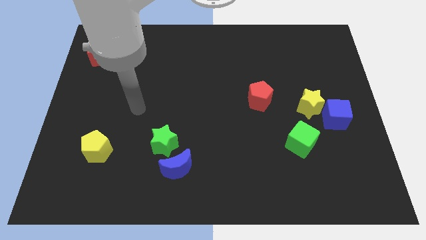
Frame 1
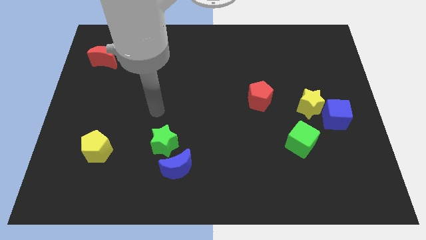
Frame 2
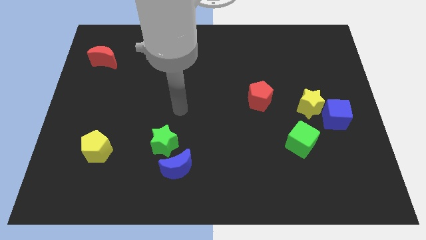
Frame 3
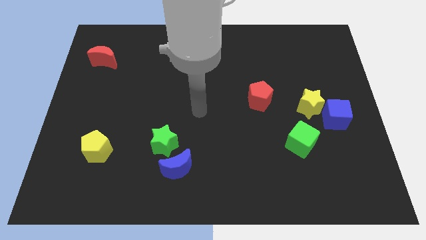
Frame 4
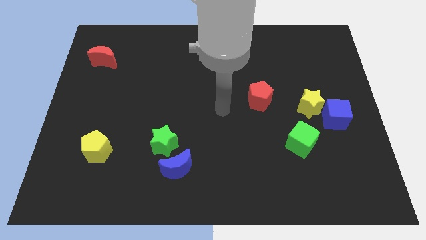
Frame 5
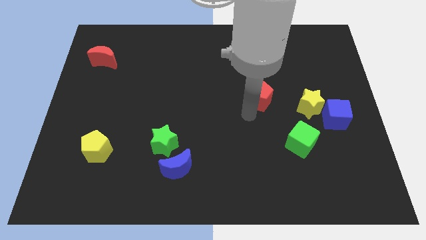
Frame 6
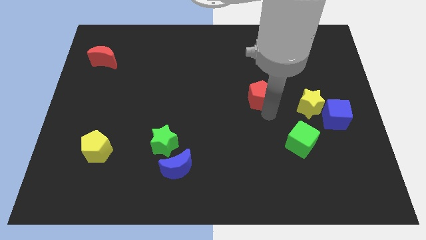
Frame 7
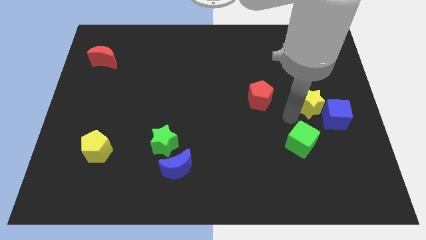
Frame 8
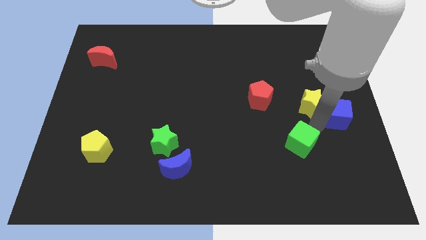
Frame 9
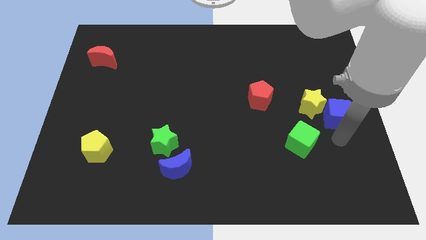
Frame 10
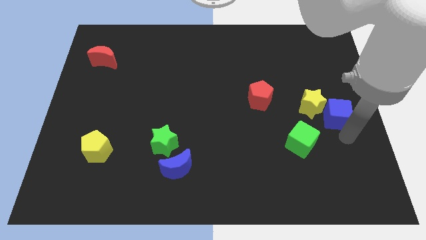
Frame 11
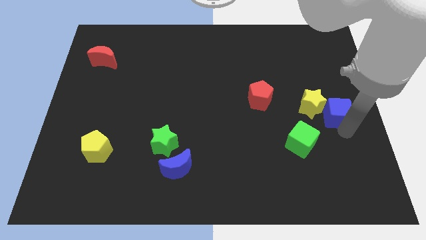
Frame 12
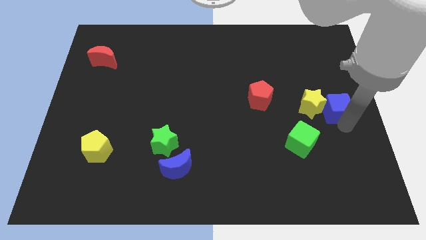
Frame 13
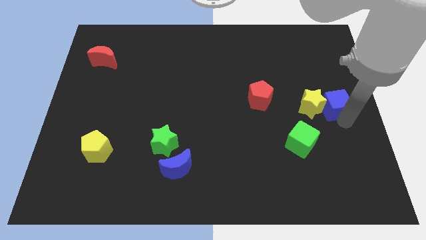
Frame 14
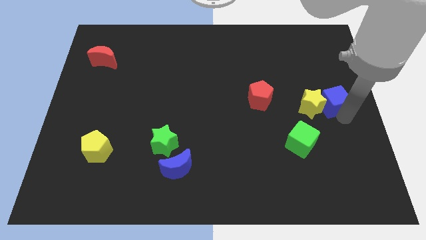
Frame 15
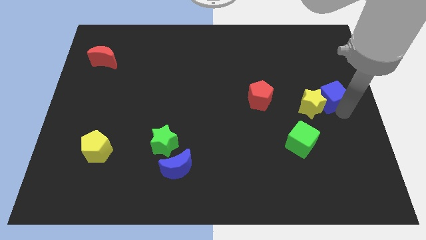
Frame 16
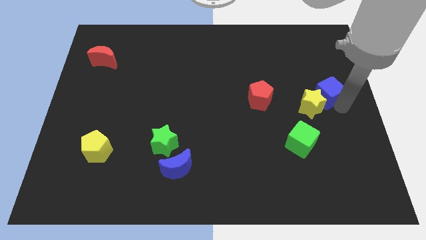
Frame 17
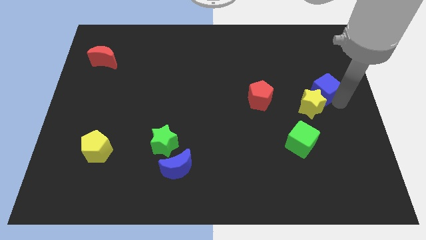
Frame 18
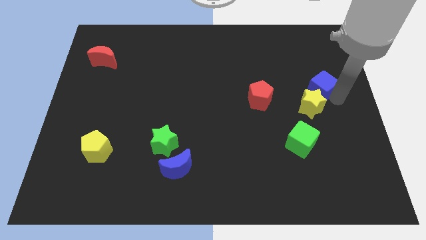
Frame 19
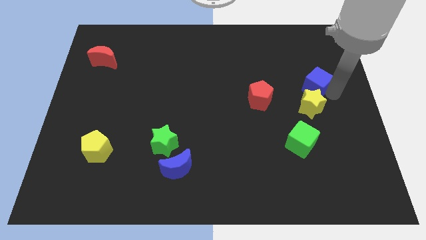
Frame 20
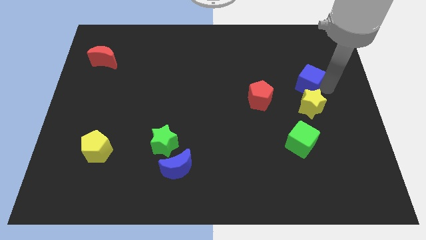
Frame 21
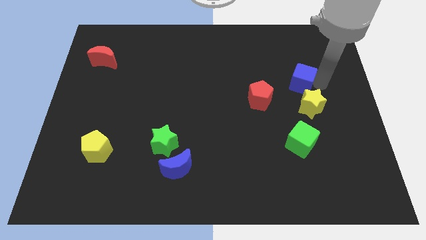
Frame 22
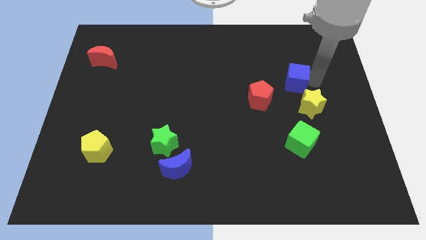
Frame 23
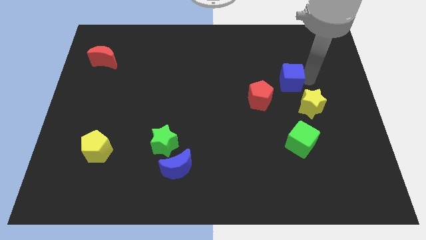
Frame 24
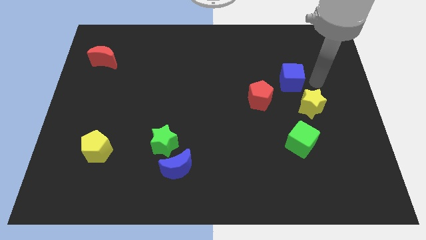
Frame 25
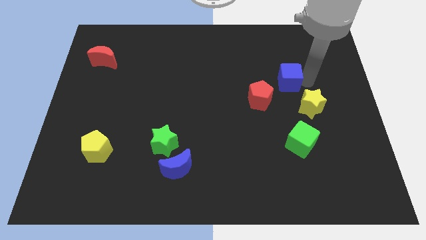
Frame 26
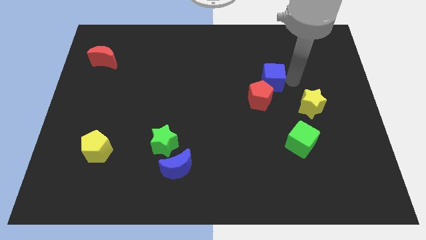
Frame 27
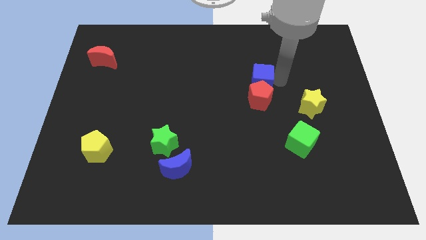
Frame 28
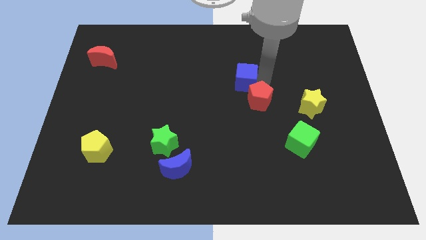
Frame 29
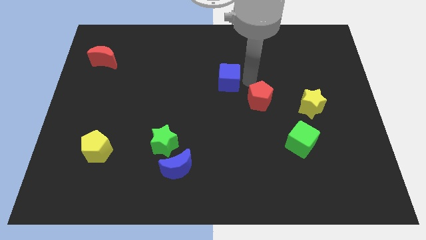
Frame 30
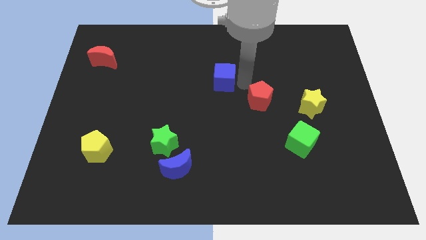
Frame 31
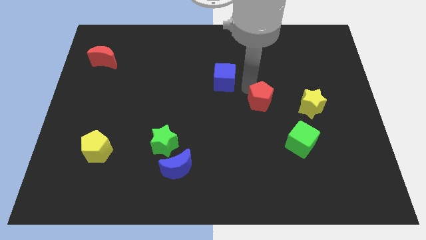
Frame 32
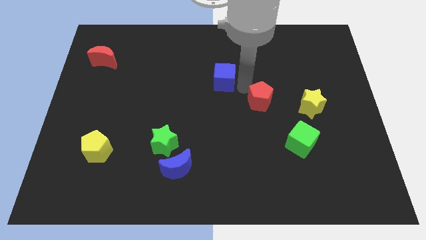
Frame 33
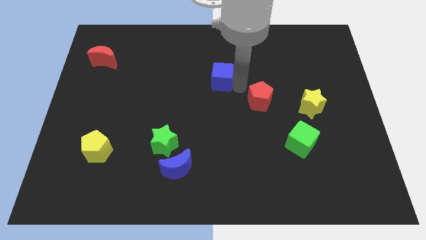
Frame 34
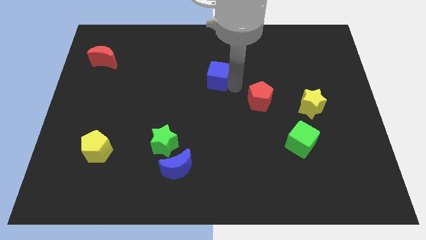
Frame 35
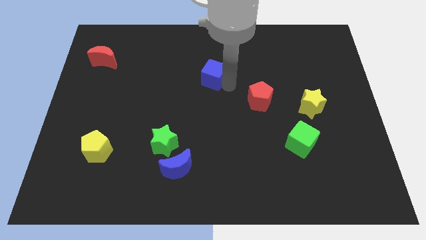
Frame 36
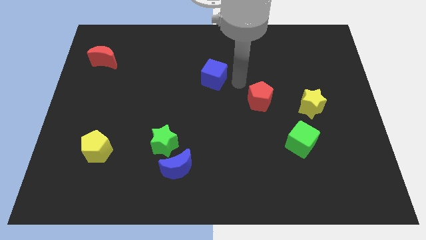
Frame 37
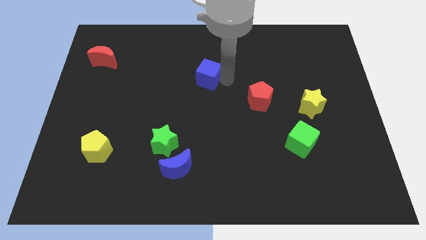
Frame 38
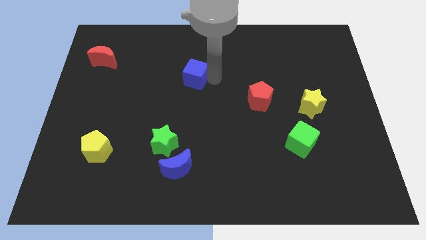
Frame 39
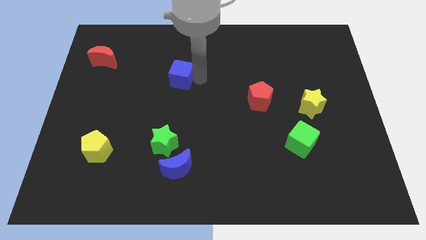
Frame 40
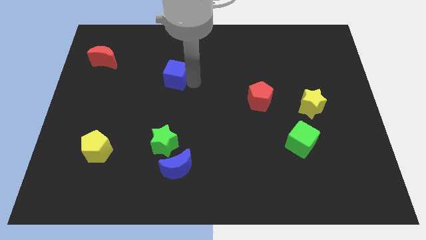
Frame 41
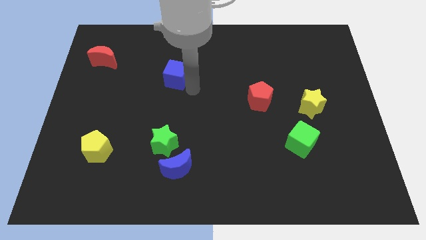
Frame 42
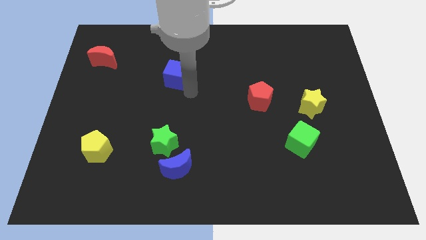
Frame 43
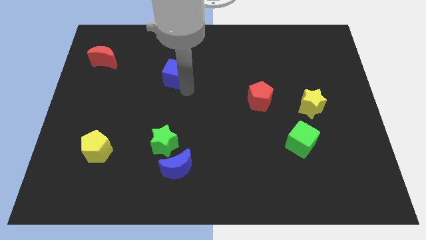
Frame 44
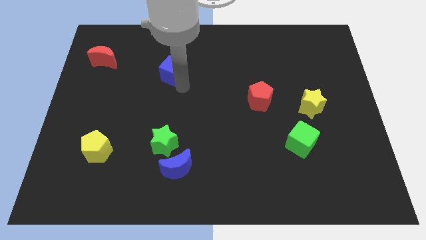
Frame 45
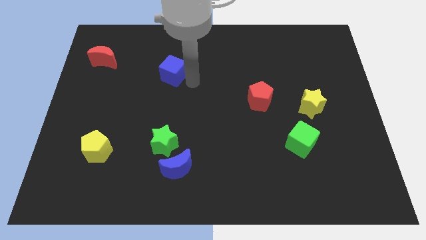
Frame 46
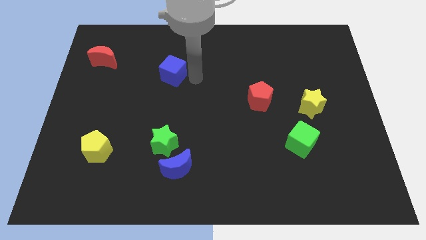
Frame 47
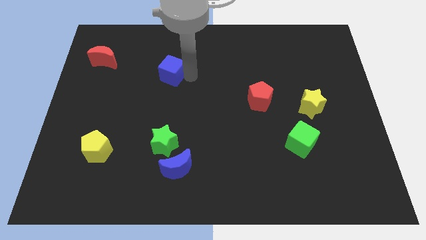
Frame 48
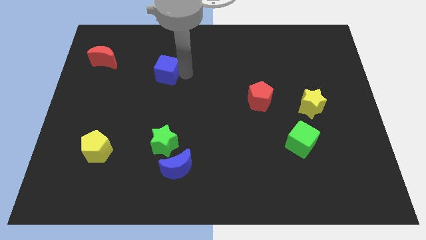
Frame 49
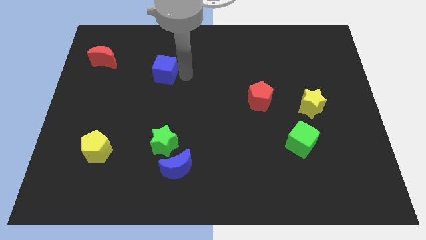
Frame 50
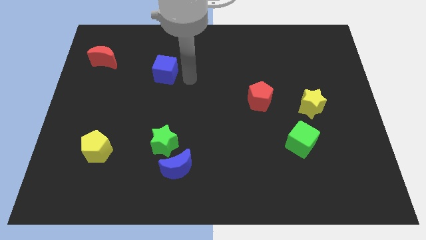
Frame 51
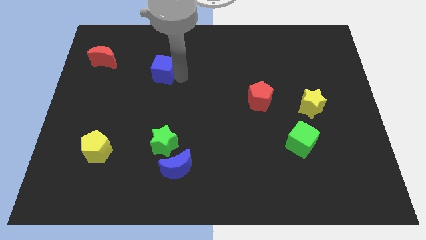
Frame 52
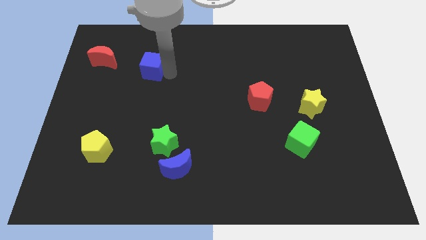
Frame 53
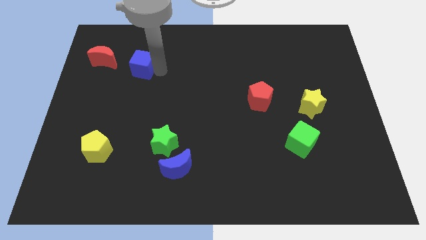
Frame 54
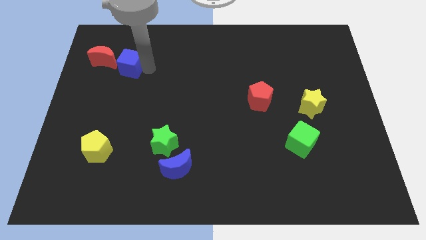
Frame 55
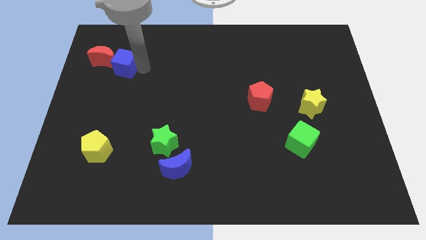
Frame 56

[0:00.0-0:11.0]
move the blue cube towards the red moon

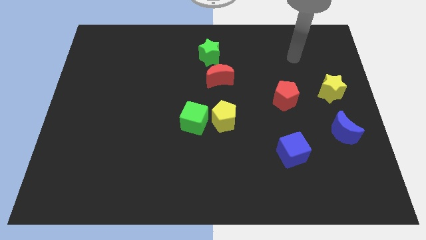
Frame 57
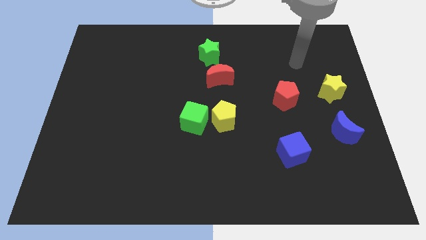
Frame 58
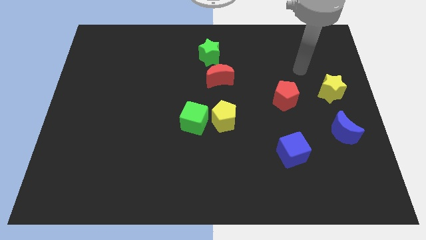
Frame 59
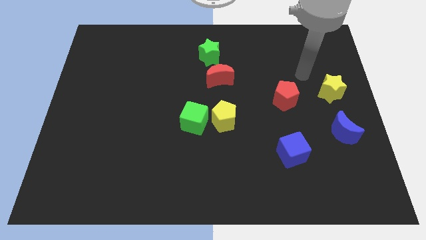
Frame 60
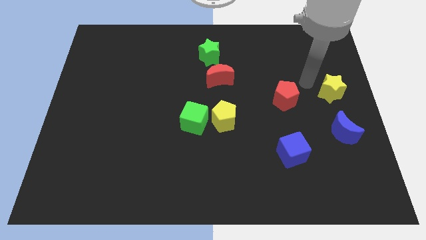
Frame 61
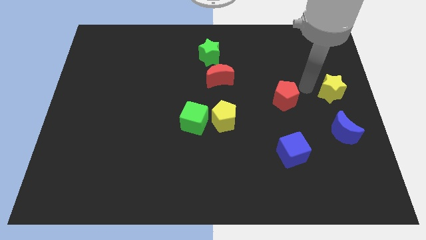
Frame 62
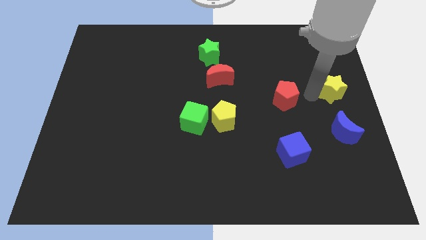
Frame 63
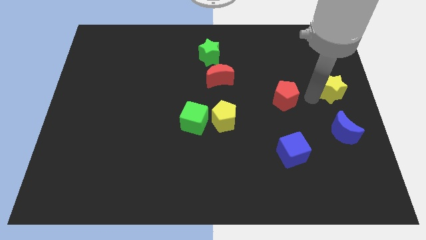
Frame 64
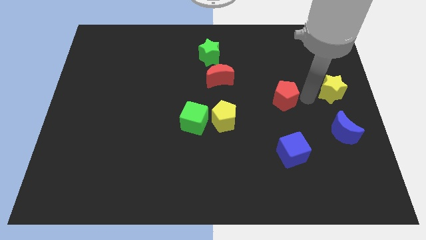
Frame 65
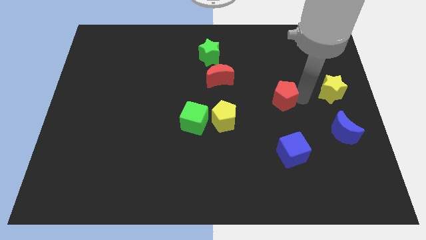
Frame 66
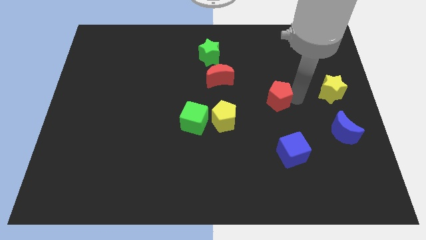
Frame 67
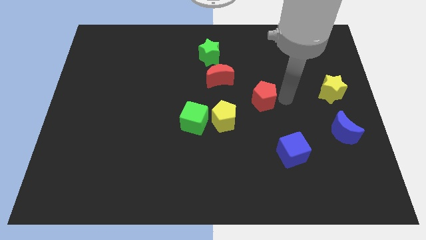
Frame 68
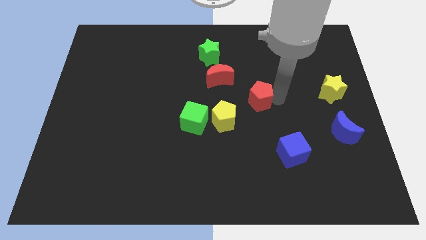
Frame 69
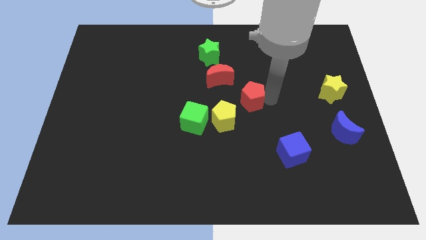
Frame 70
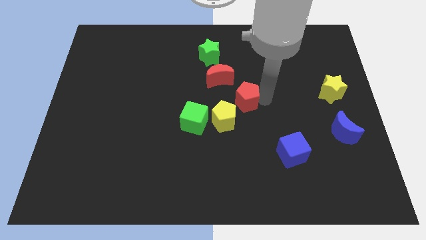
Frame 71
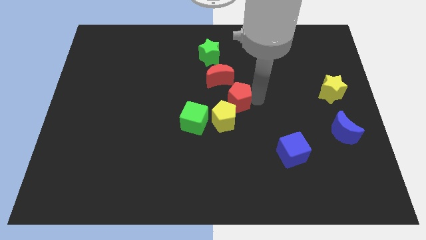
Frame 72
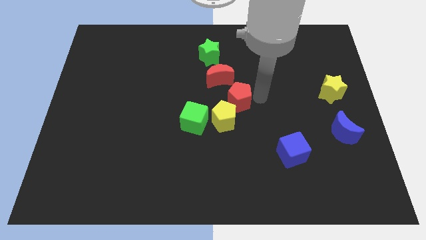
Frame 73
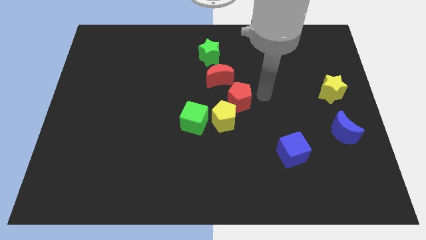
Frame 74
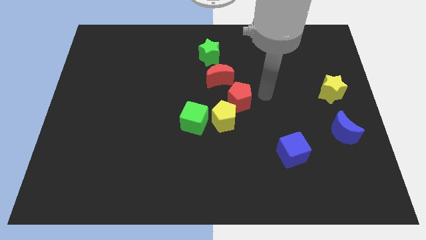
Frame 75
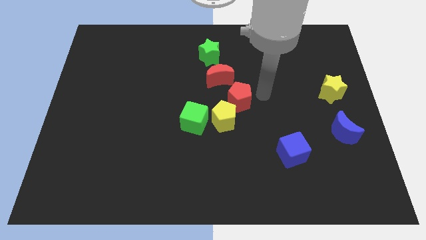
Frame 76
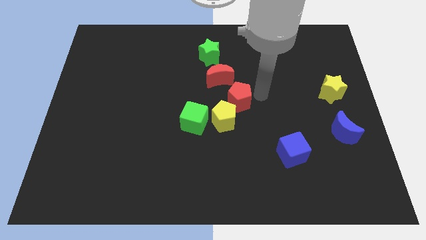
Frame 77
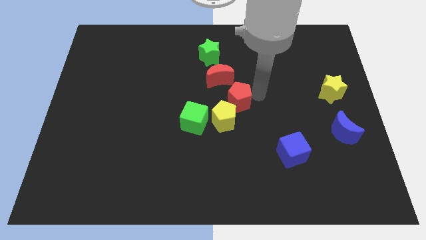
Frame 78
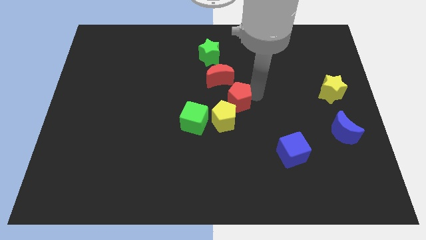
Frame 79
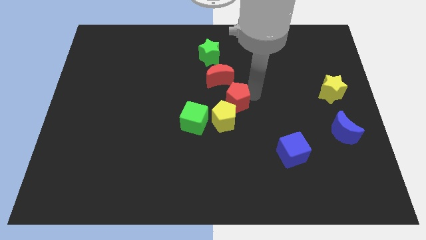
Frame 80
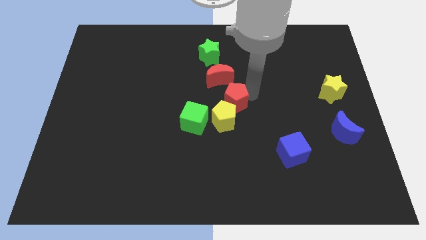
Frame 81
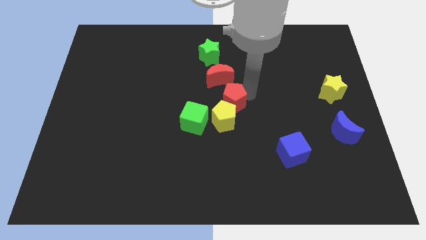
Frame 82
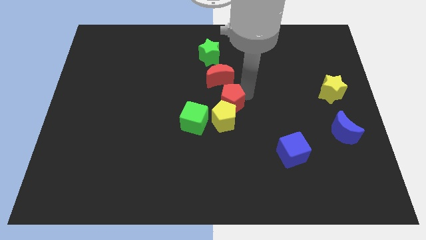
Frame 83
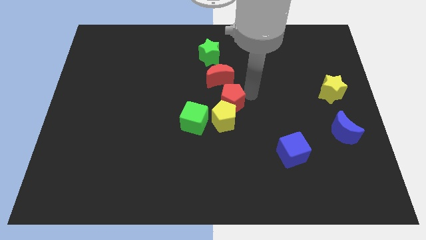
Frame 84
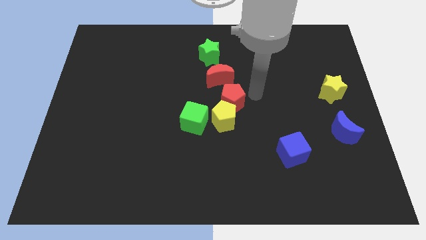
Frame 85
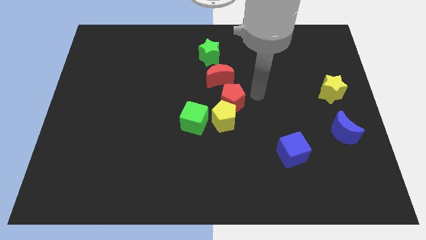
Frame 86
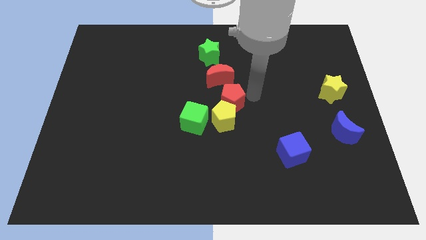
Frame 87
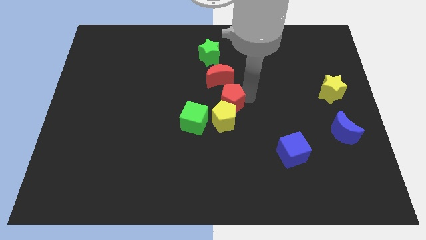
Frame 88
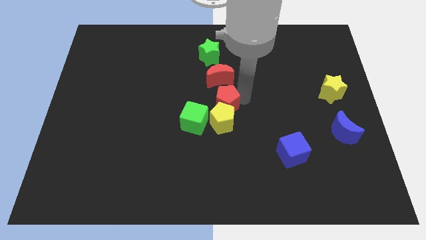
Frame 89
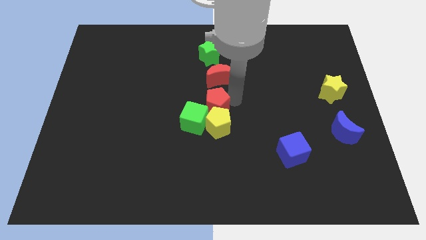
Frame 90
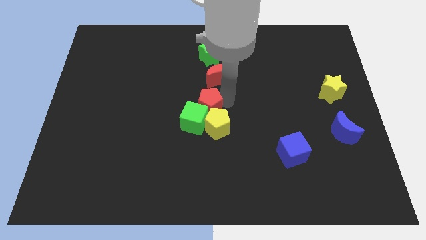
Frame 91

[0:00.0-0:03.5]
move the red pentagon close to the green cube
